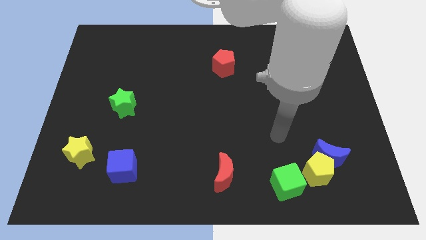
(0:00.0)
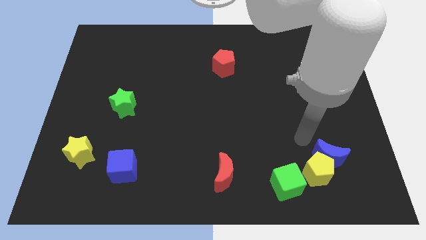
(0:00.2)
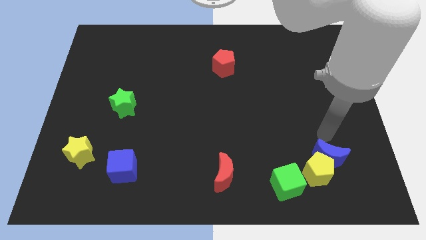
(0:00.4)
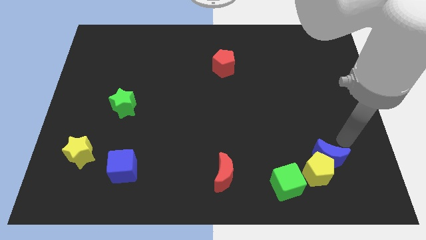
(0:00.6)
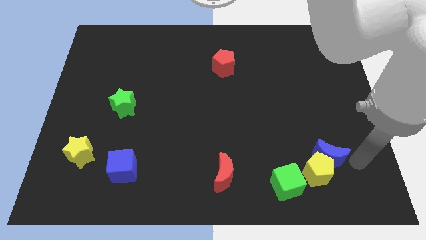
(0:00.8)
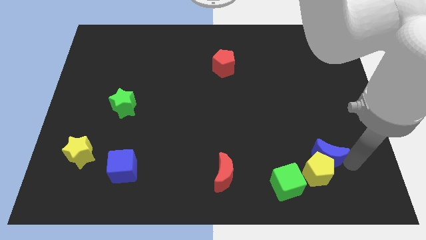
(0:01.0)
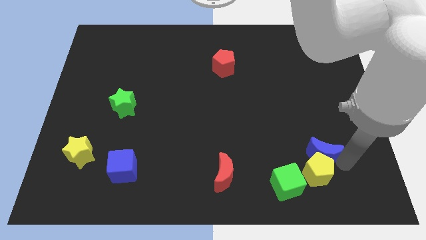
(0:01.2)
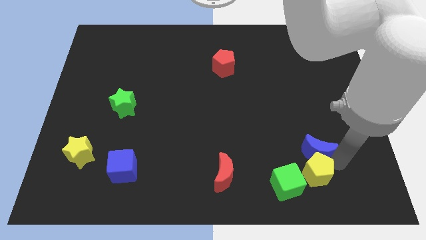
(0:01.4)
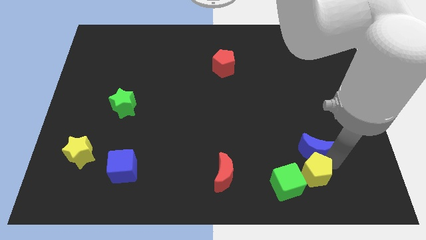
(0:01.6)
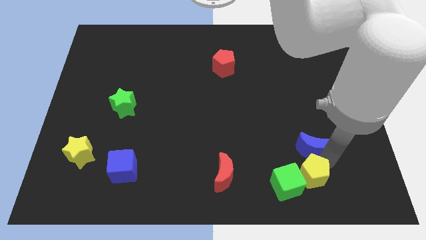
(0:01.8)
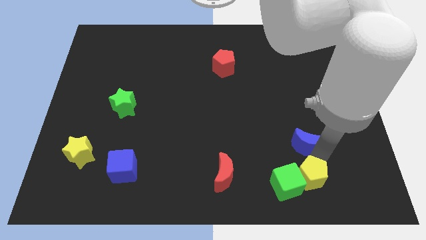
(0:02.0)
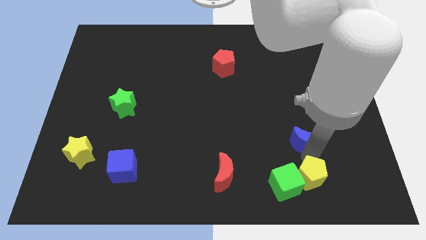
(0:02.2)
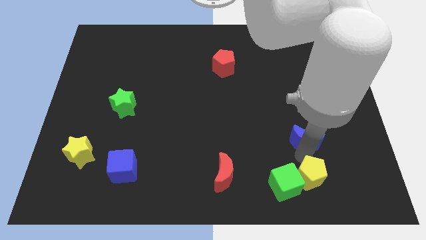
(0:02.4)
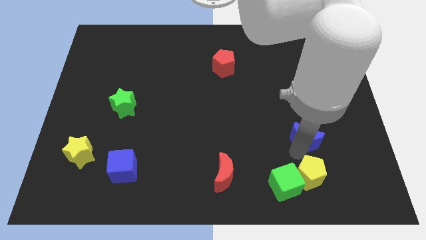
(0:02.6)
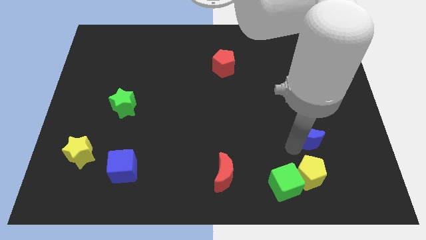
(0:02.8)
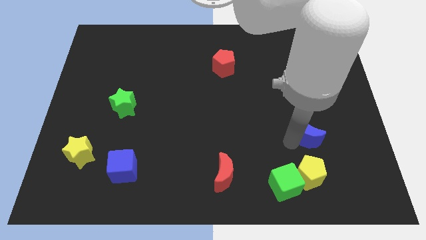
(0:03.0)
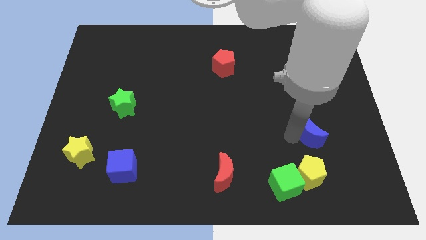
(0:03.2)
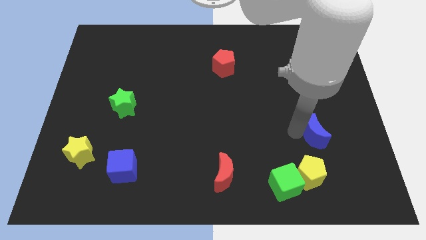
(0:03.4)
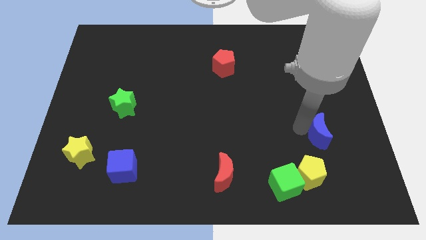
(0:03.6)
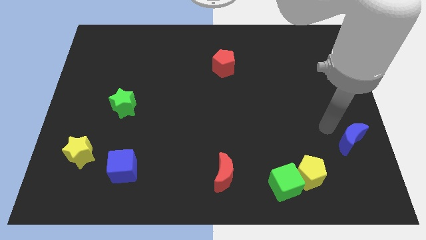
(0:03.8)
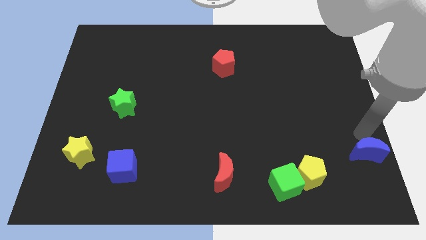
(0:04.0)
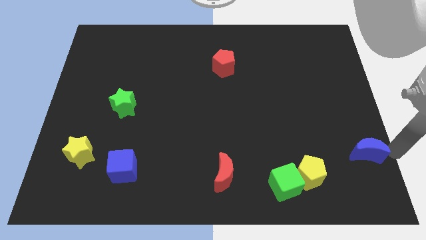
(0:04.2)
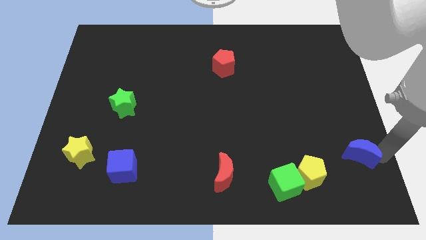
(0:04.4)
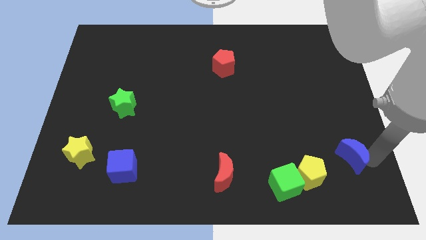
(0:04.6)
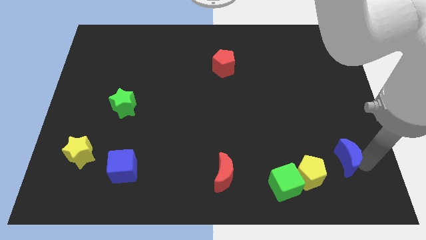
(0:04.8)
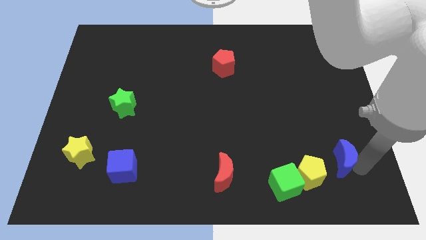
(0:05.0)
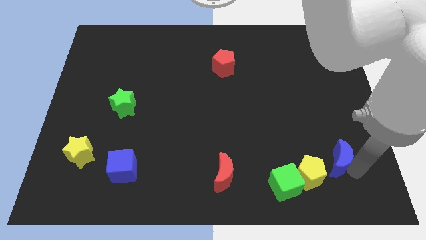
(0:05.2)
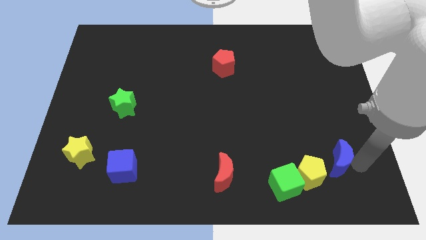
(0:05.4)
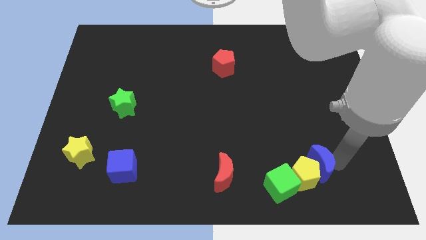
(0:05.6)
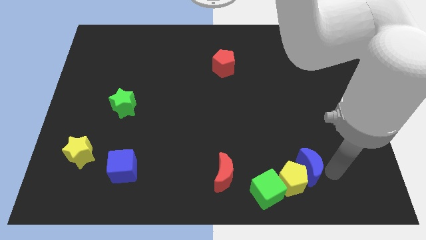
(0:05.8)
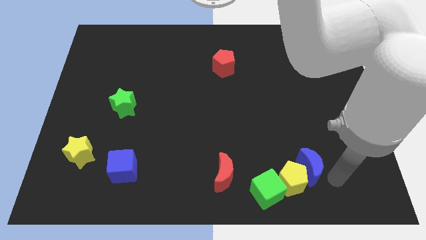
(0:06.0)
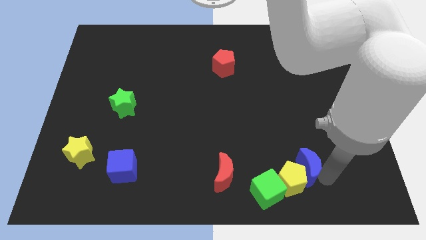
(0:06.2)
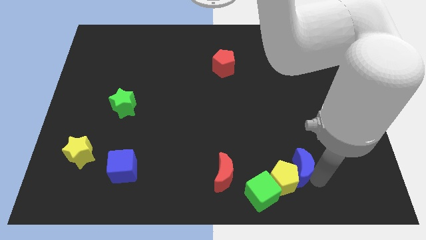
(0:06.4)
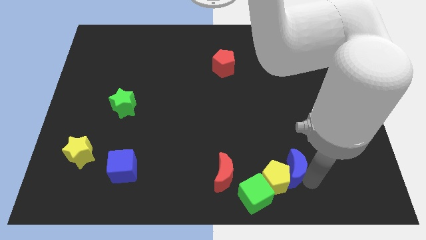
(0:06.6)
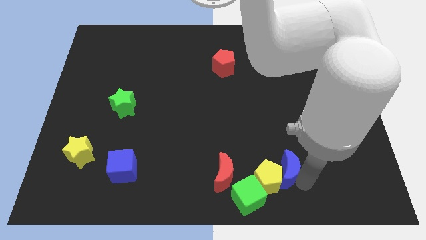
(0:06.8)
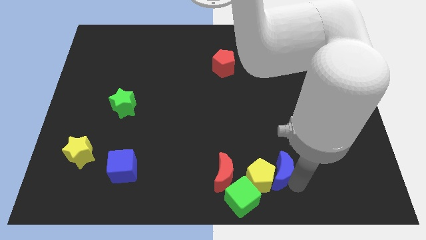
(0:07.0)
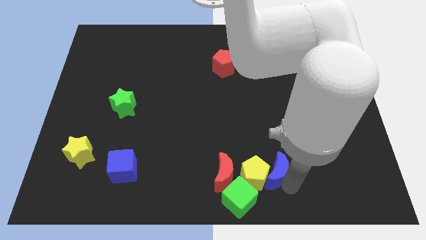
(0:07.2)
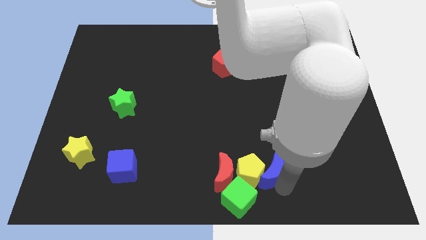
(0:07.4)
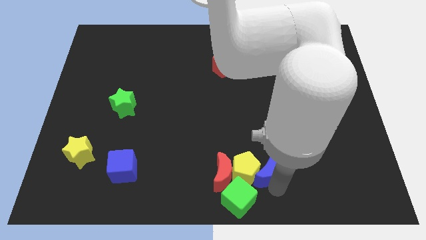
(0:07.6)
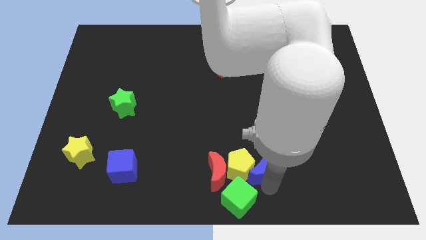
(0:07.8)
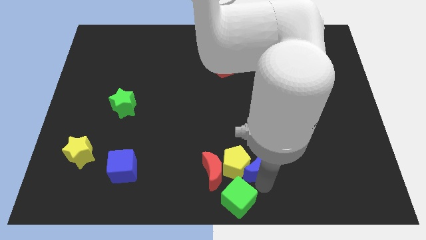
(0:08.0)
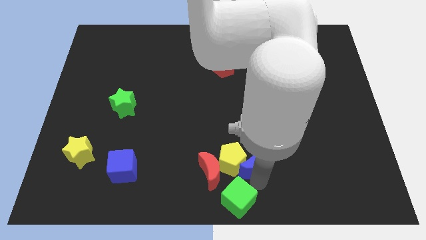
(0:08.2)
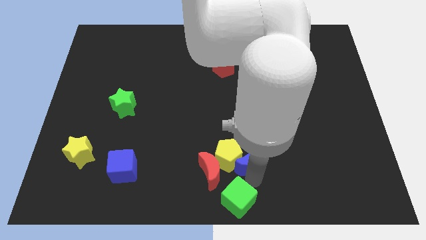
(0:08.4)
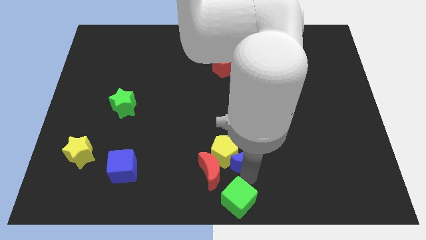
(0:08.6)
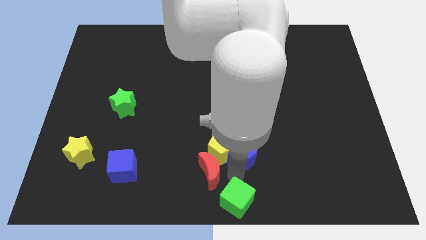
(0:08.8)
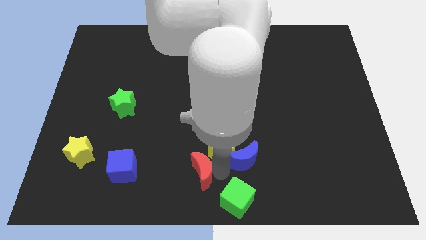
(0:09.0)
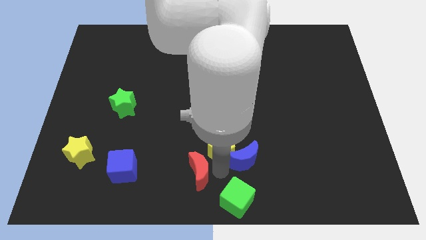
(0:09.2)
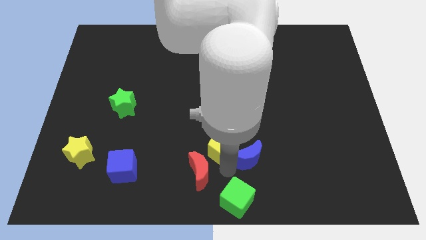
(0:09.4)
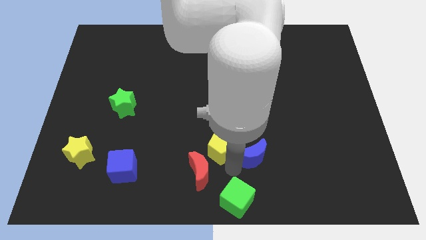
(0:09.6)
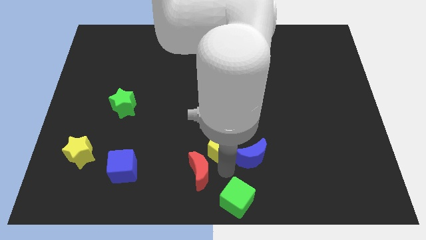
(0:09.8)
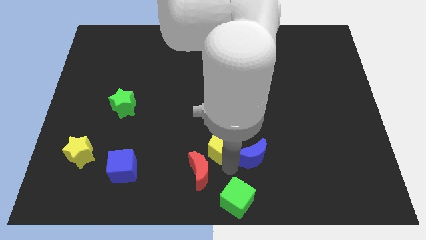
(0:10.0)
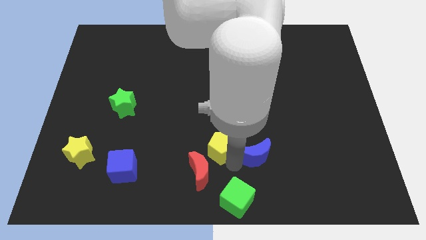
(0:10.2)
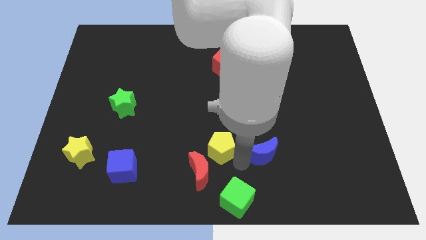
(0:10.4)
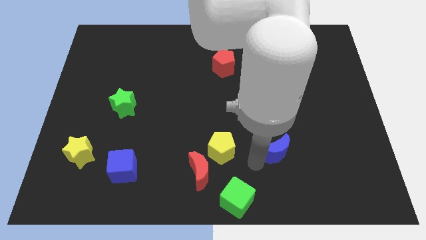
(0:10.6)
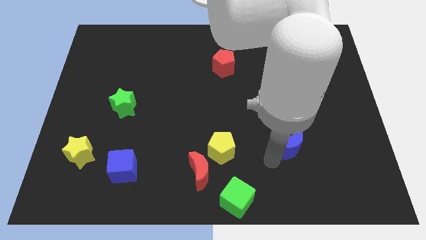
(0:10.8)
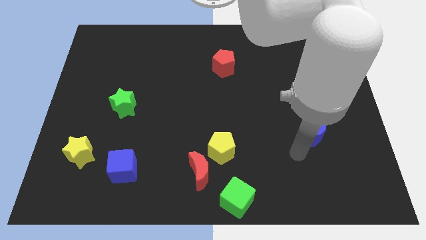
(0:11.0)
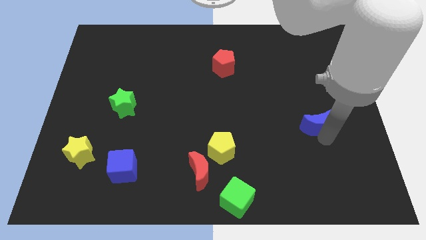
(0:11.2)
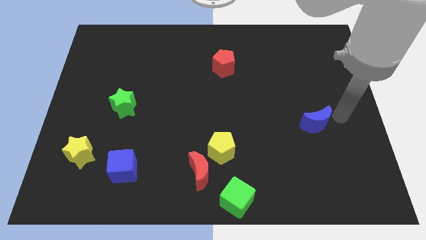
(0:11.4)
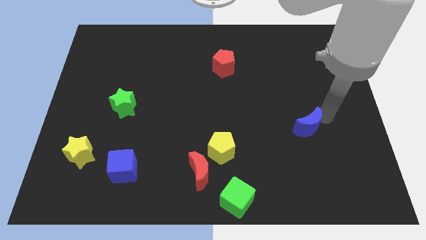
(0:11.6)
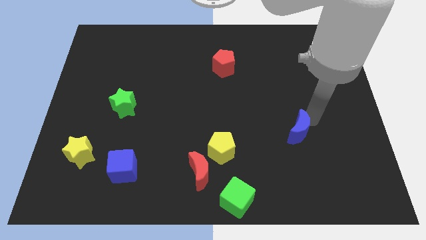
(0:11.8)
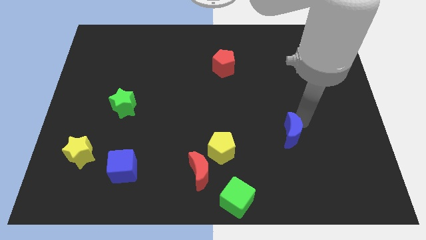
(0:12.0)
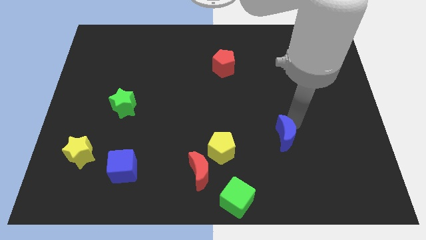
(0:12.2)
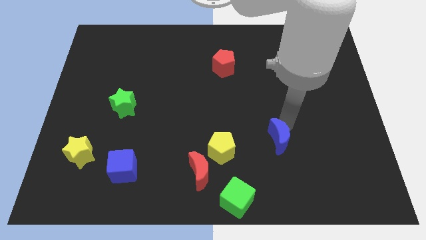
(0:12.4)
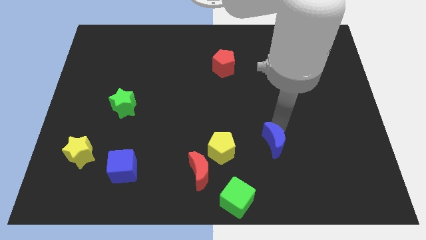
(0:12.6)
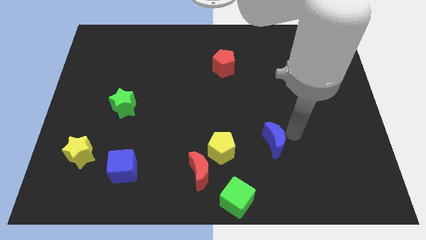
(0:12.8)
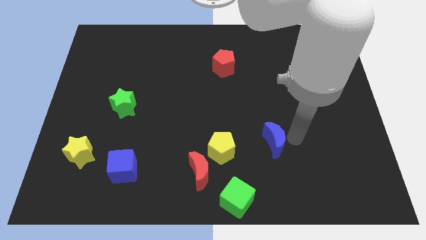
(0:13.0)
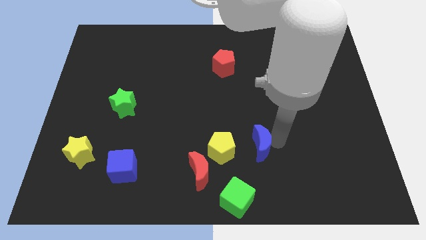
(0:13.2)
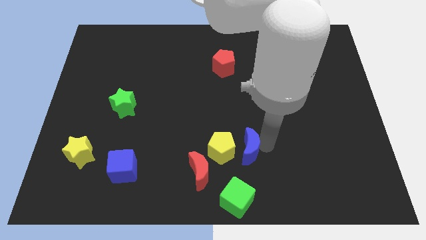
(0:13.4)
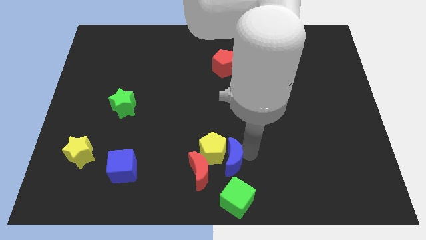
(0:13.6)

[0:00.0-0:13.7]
move the blue moon to the left

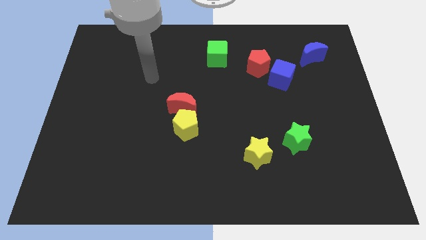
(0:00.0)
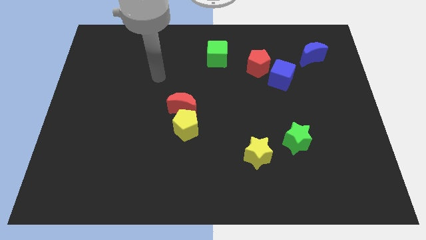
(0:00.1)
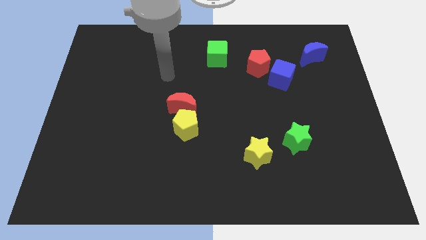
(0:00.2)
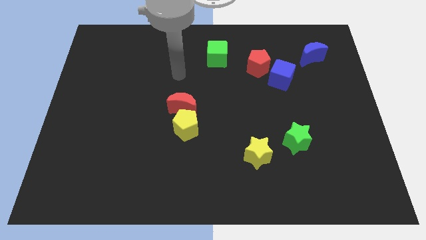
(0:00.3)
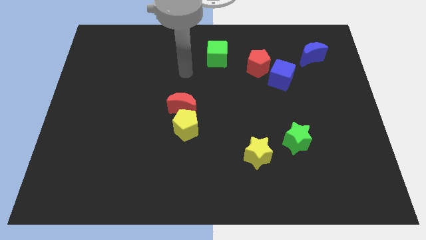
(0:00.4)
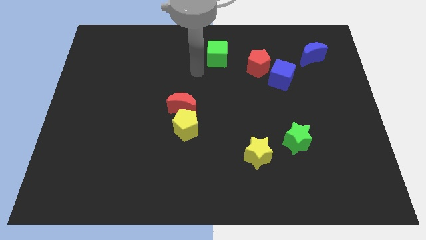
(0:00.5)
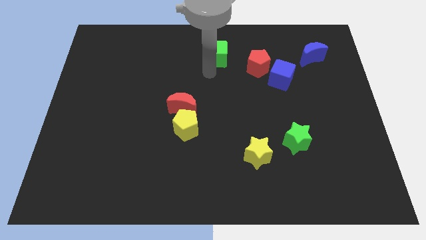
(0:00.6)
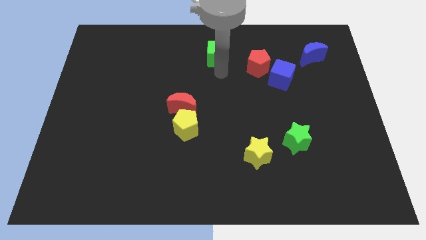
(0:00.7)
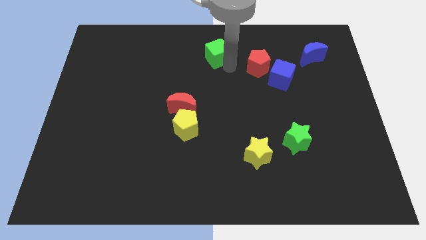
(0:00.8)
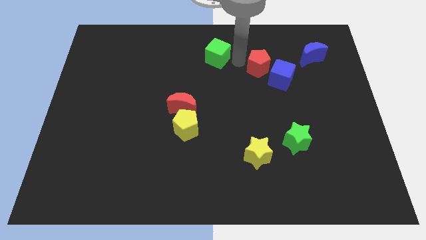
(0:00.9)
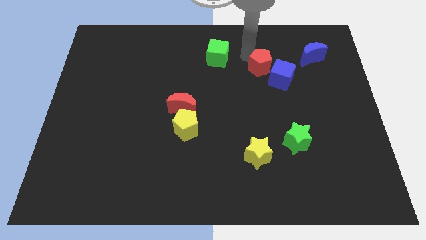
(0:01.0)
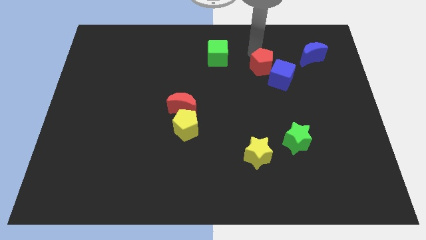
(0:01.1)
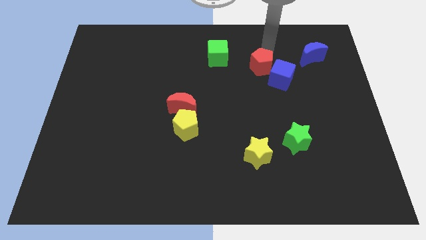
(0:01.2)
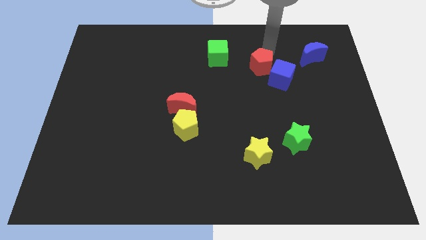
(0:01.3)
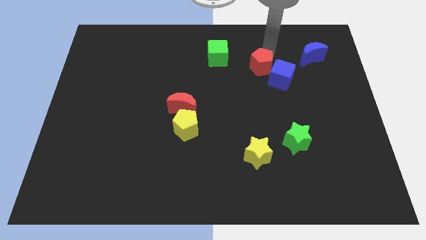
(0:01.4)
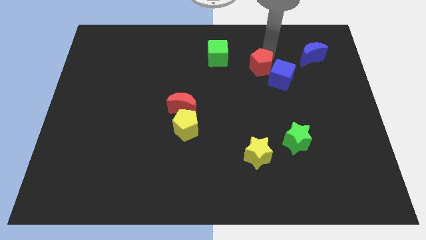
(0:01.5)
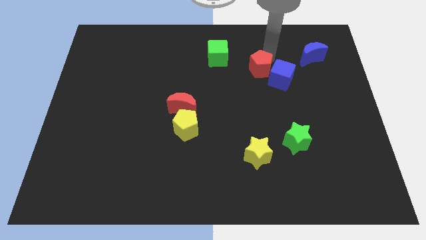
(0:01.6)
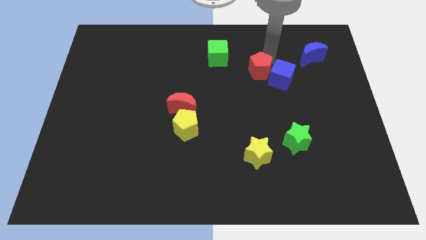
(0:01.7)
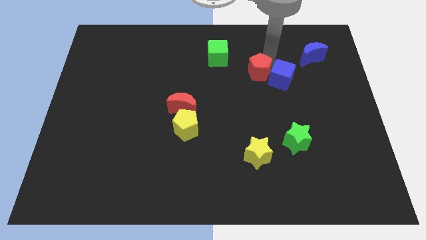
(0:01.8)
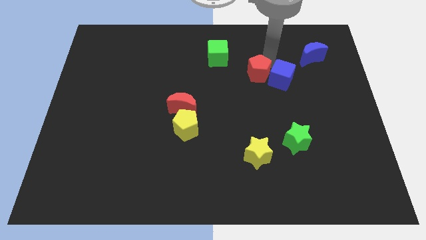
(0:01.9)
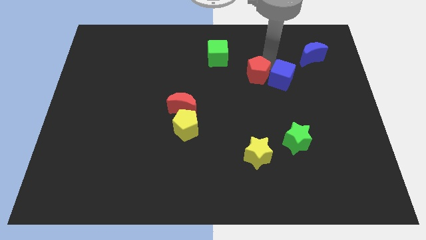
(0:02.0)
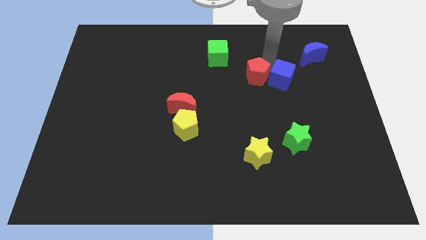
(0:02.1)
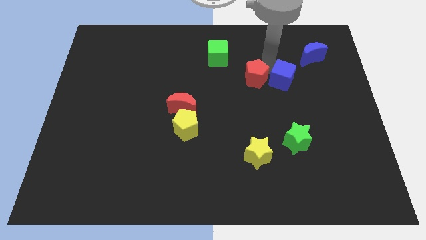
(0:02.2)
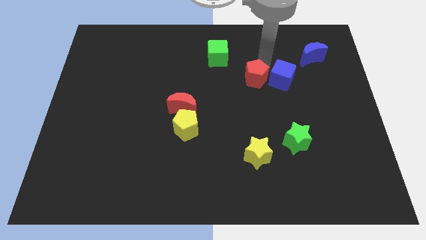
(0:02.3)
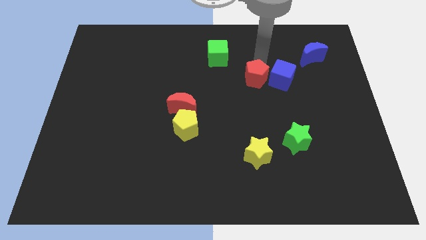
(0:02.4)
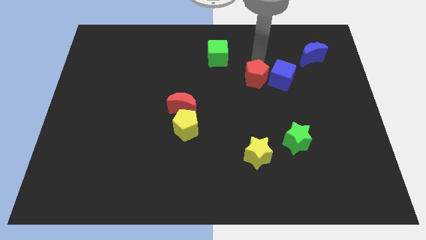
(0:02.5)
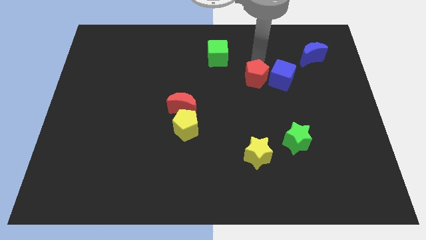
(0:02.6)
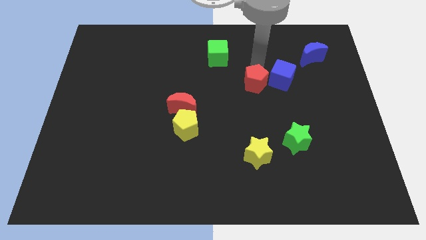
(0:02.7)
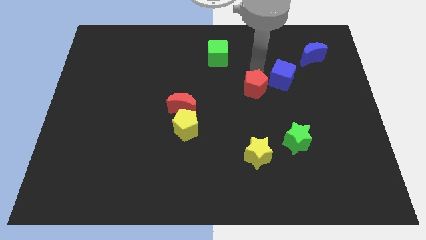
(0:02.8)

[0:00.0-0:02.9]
move the red pentagon down a little
